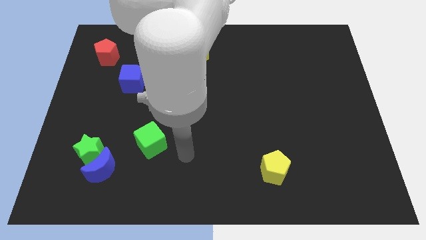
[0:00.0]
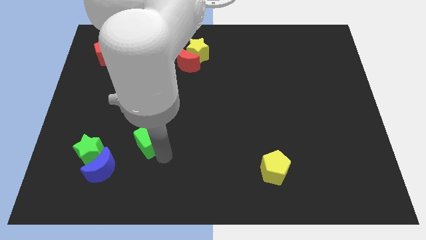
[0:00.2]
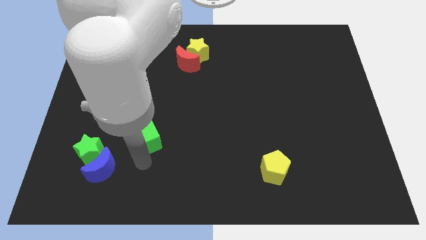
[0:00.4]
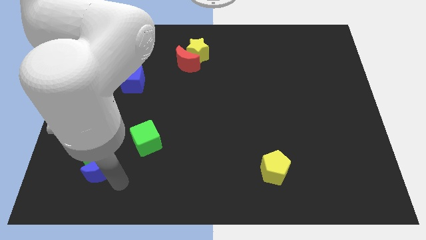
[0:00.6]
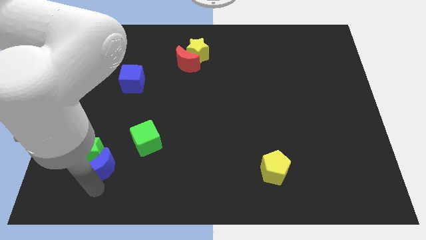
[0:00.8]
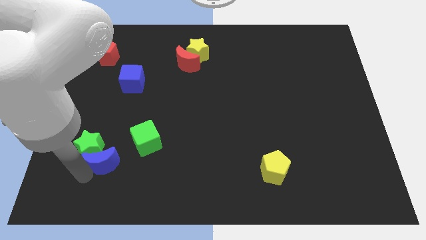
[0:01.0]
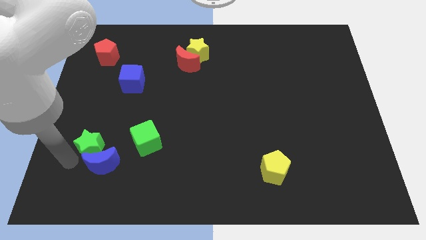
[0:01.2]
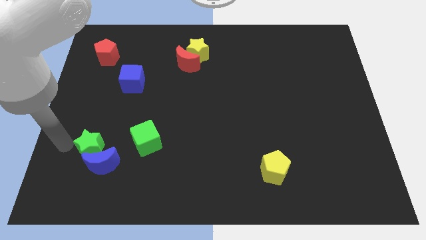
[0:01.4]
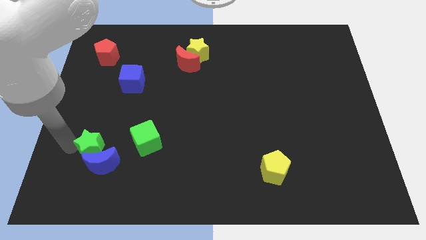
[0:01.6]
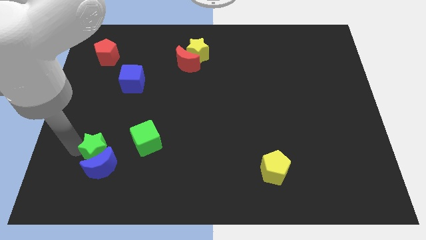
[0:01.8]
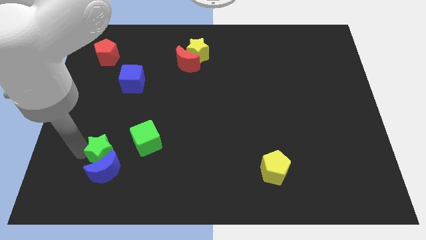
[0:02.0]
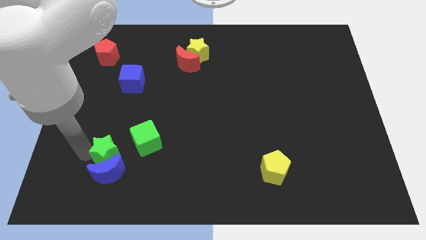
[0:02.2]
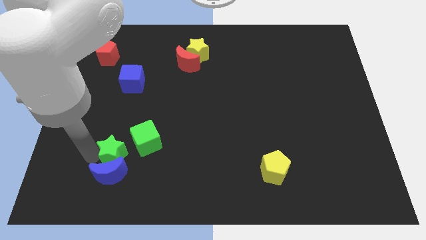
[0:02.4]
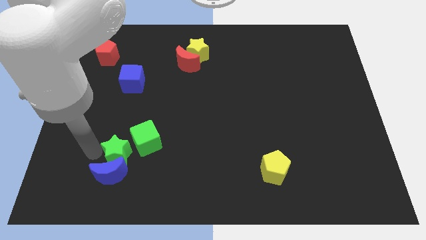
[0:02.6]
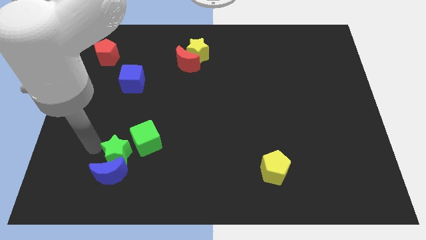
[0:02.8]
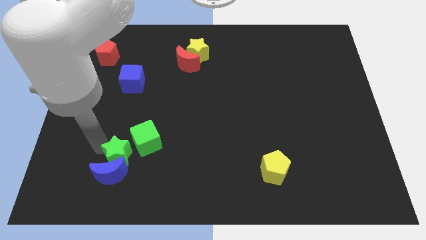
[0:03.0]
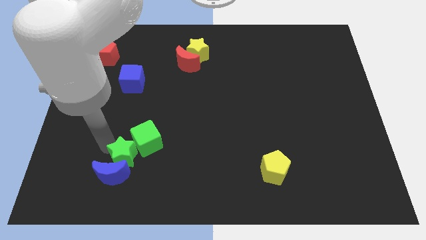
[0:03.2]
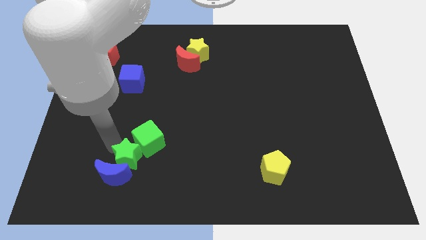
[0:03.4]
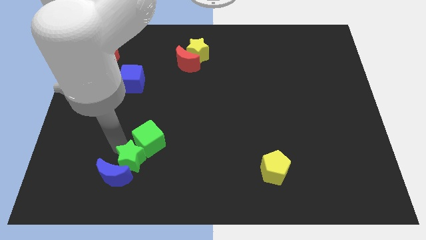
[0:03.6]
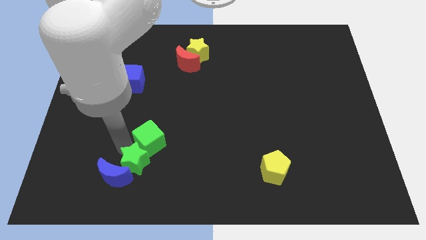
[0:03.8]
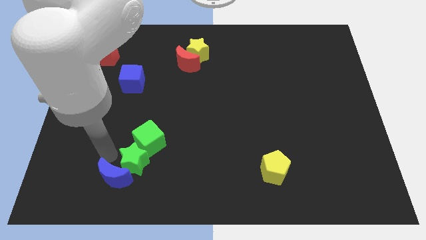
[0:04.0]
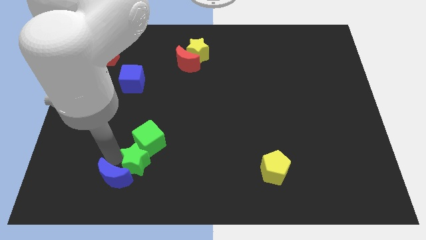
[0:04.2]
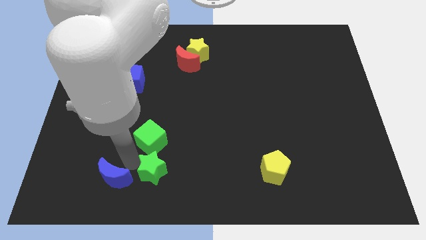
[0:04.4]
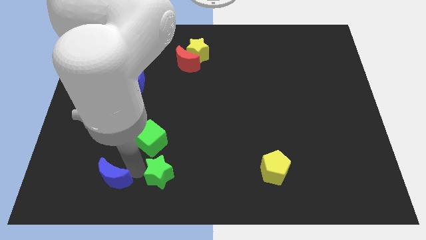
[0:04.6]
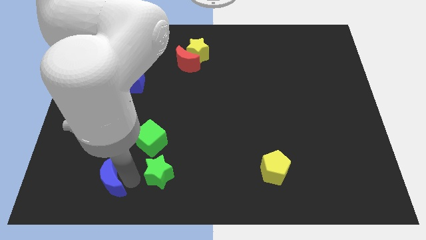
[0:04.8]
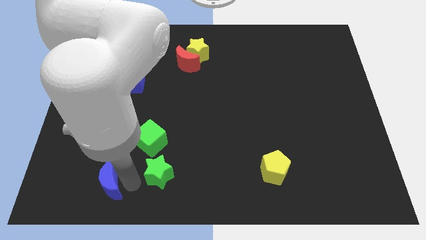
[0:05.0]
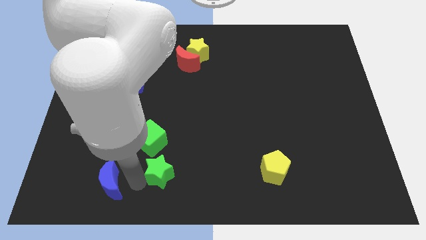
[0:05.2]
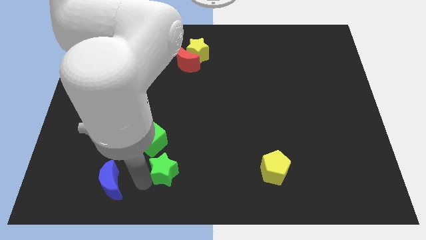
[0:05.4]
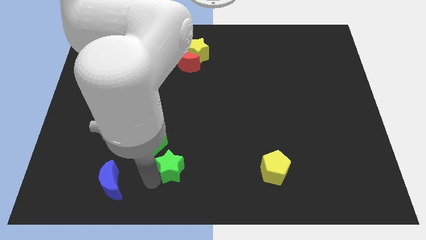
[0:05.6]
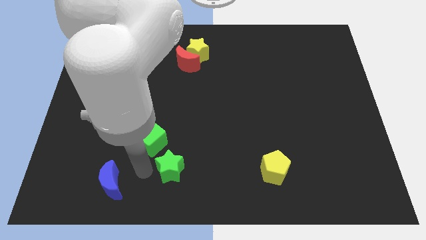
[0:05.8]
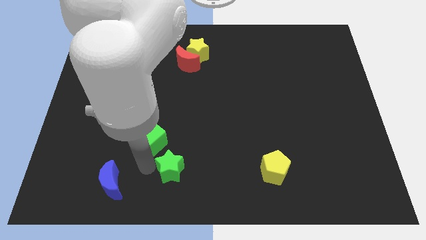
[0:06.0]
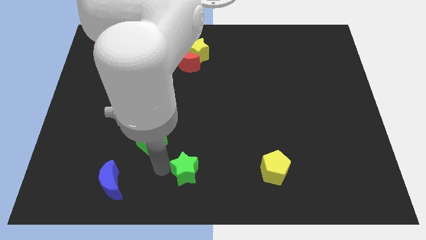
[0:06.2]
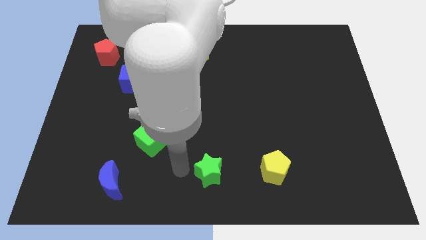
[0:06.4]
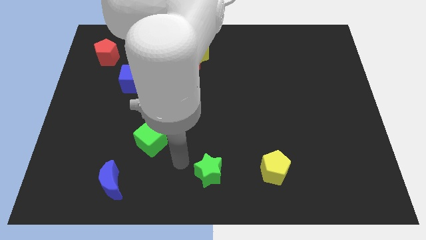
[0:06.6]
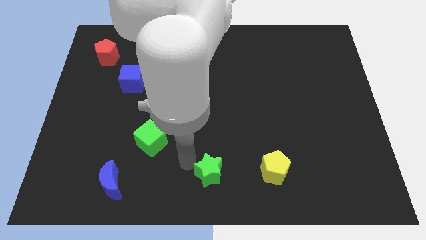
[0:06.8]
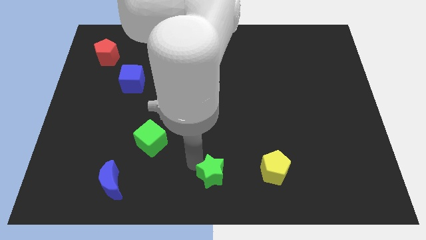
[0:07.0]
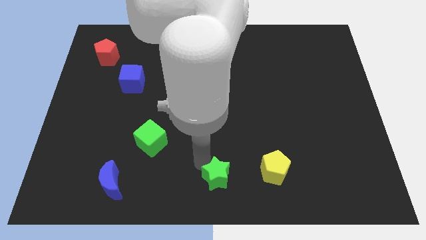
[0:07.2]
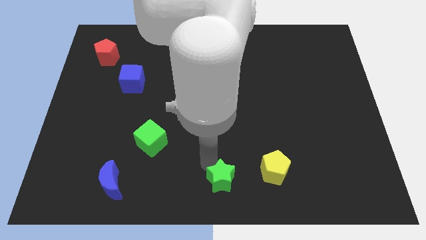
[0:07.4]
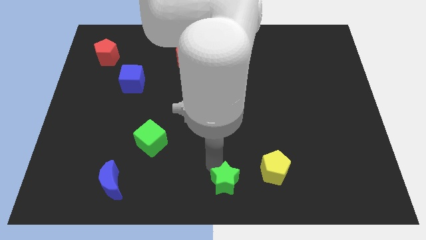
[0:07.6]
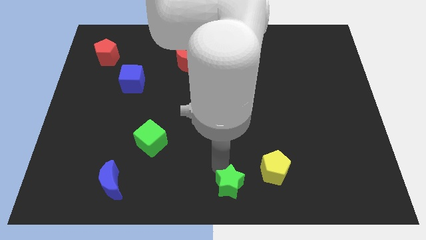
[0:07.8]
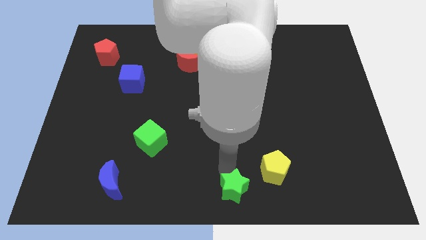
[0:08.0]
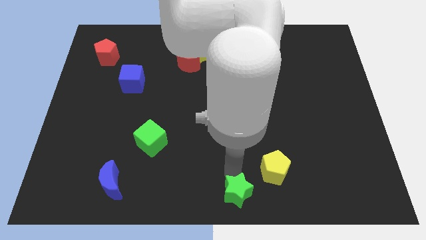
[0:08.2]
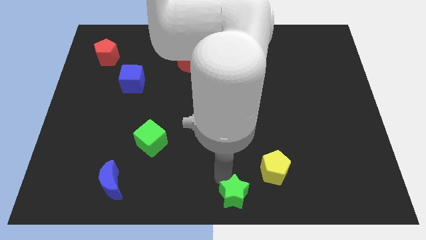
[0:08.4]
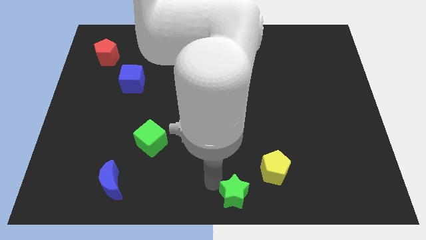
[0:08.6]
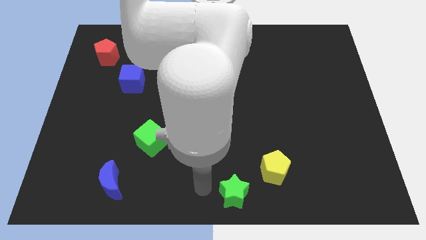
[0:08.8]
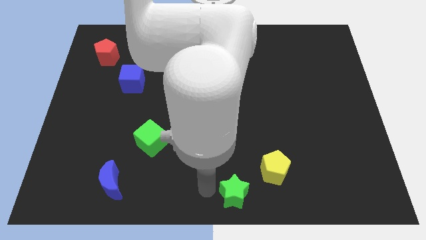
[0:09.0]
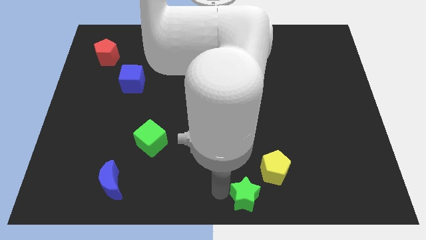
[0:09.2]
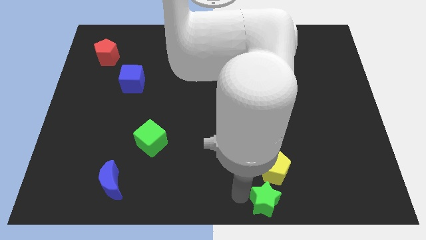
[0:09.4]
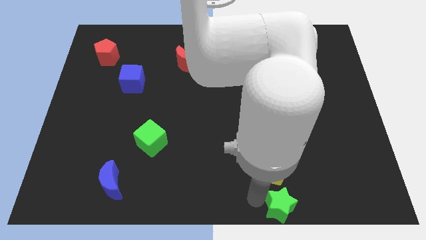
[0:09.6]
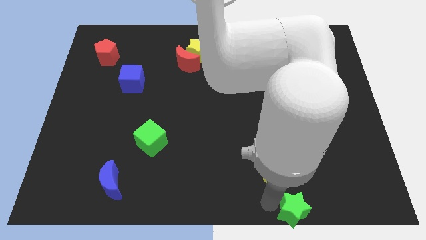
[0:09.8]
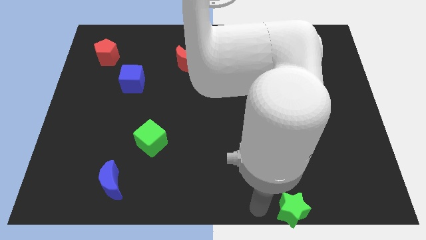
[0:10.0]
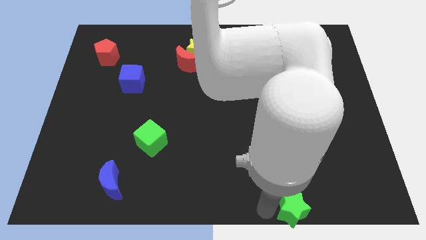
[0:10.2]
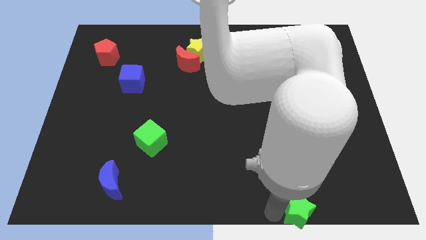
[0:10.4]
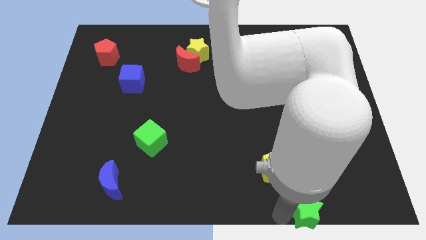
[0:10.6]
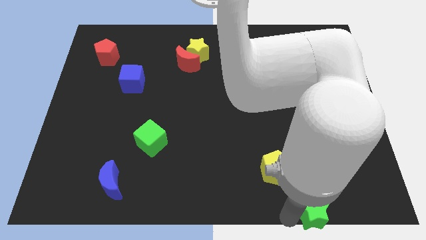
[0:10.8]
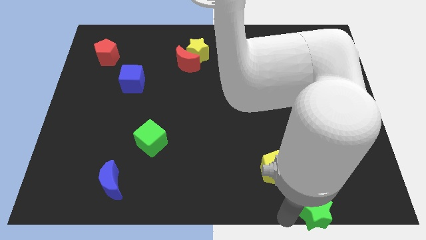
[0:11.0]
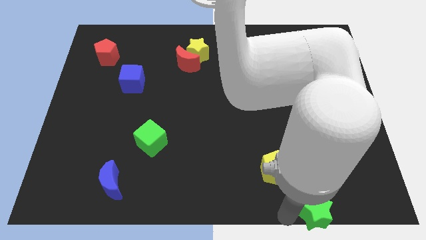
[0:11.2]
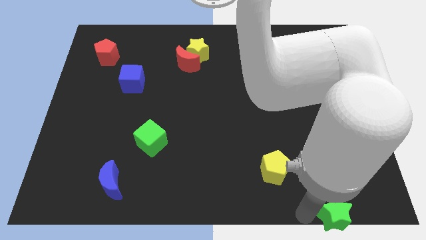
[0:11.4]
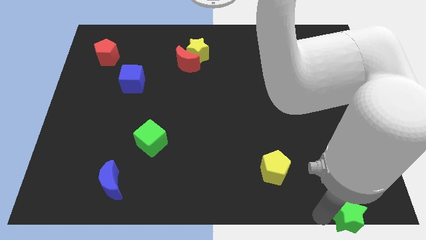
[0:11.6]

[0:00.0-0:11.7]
slide the green star to the bottom right of the board

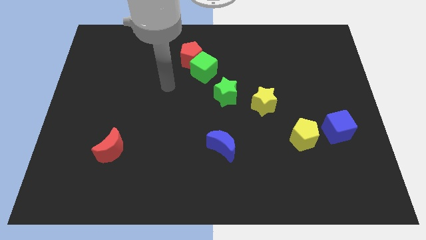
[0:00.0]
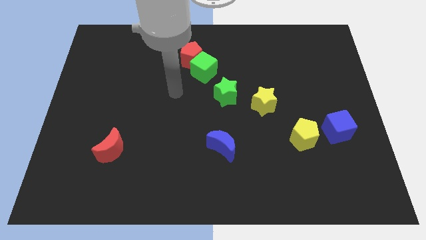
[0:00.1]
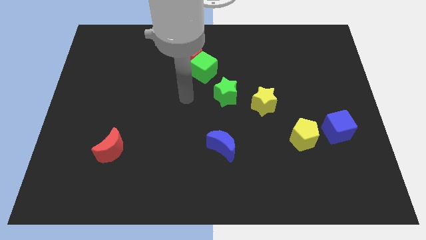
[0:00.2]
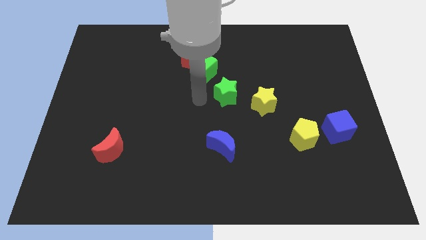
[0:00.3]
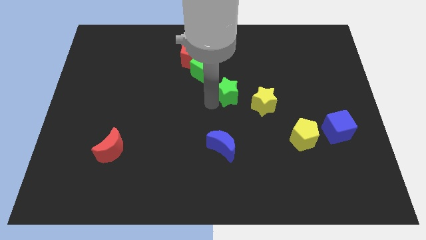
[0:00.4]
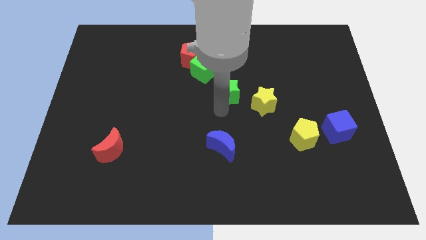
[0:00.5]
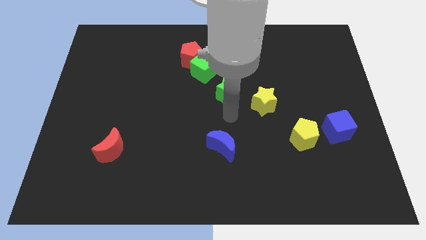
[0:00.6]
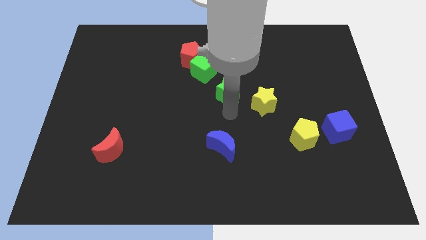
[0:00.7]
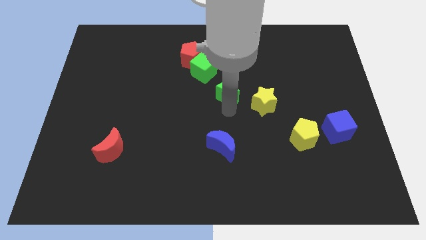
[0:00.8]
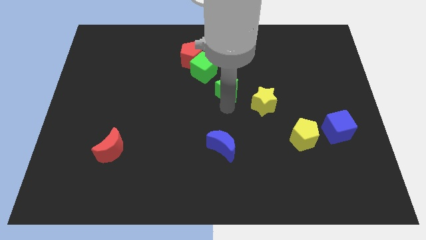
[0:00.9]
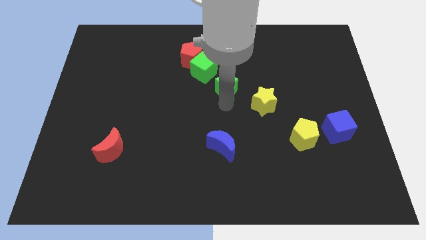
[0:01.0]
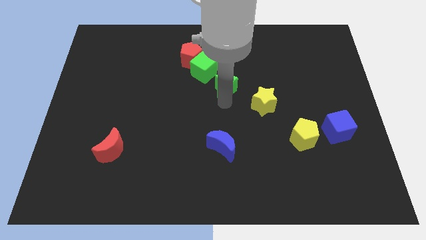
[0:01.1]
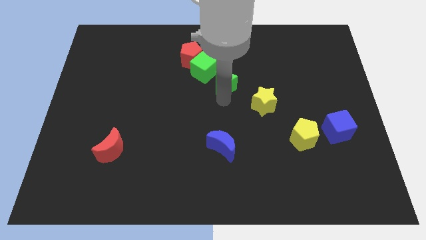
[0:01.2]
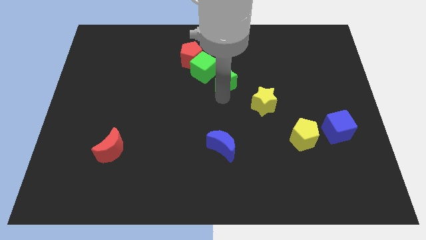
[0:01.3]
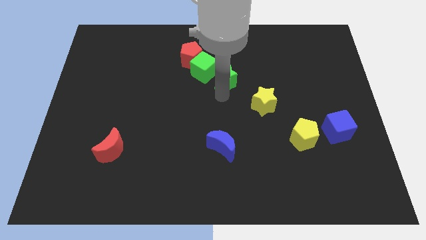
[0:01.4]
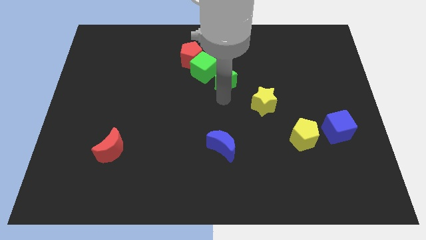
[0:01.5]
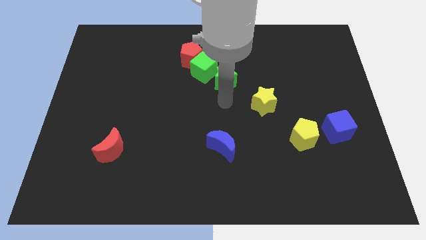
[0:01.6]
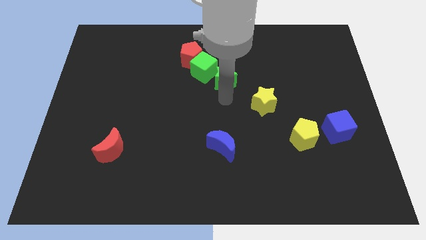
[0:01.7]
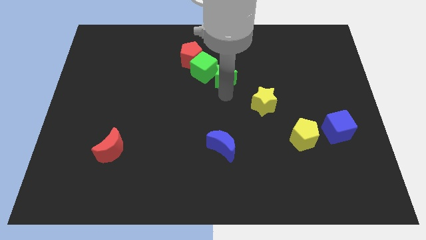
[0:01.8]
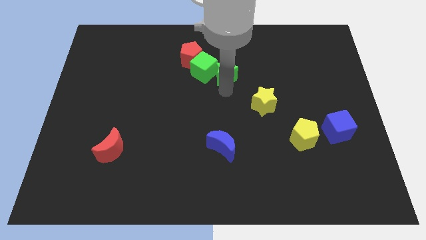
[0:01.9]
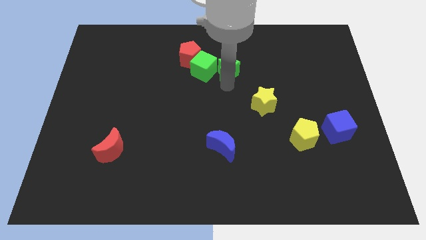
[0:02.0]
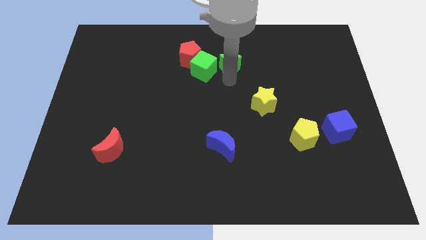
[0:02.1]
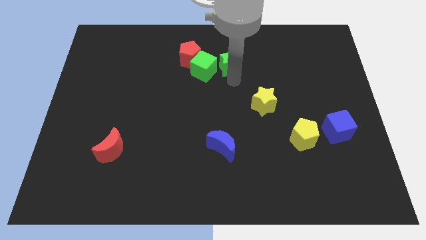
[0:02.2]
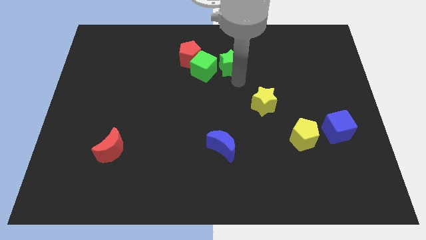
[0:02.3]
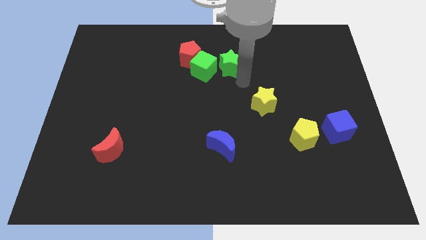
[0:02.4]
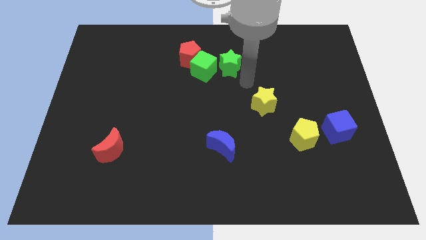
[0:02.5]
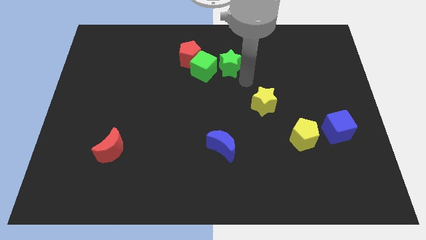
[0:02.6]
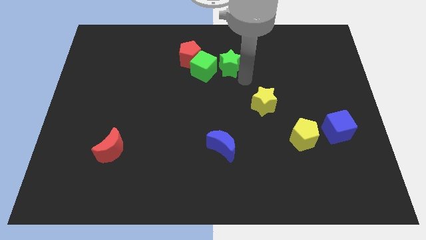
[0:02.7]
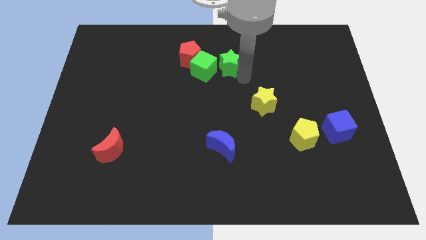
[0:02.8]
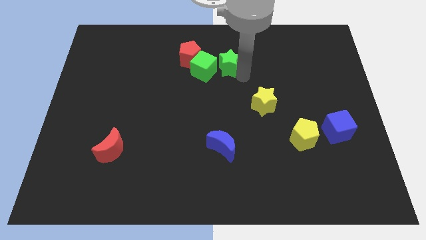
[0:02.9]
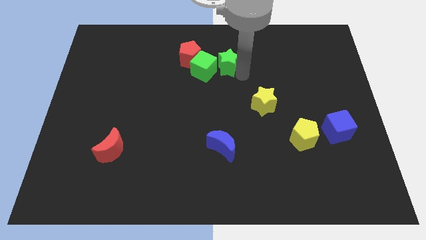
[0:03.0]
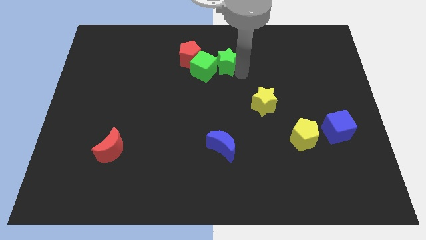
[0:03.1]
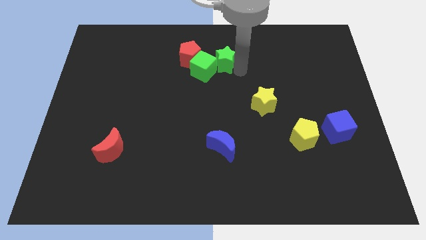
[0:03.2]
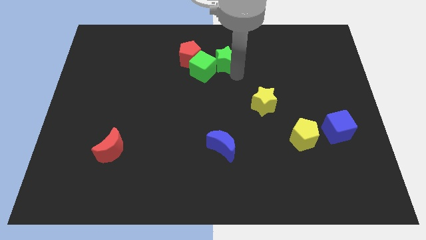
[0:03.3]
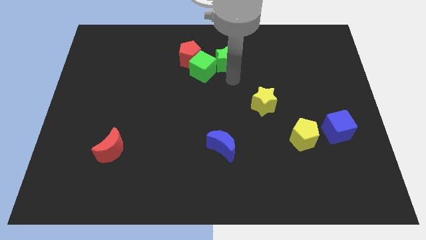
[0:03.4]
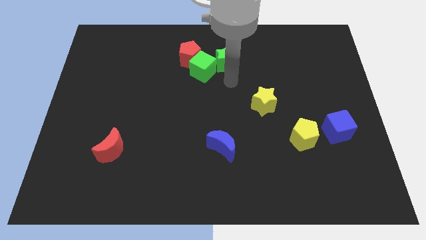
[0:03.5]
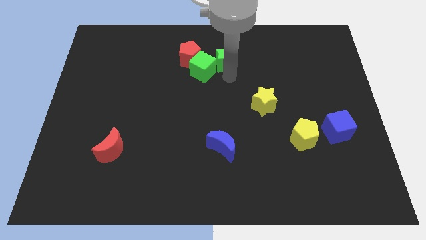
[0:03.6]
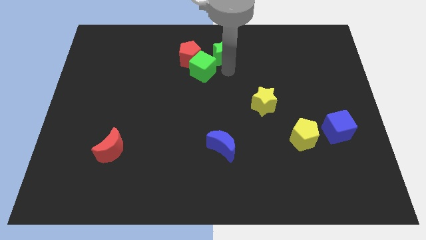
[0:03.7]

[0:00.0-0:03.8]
push the green star to the top
